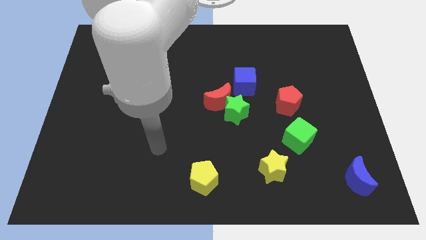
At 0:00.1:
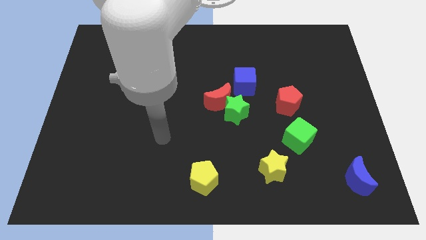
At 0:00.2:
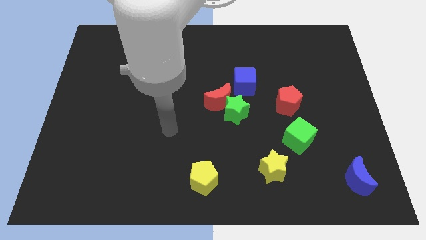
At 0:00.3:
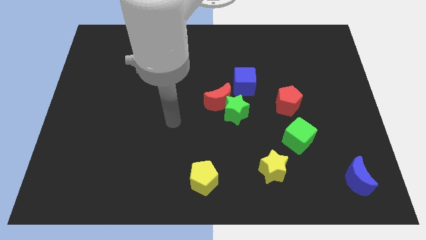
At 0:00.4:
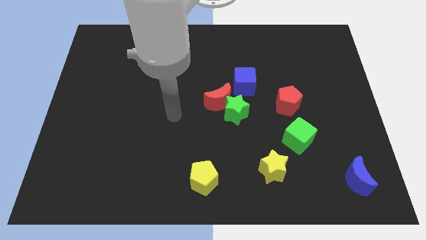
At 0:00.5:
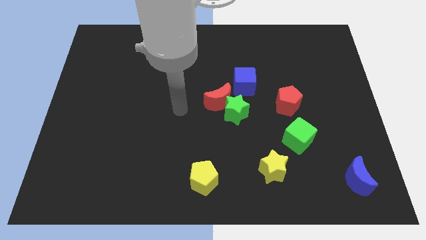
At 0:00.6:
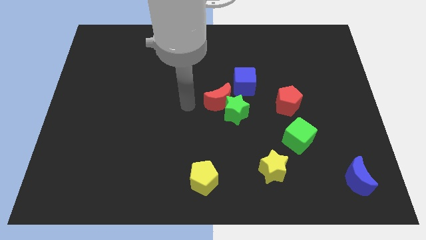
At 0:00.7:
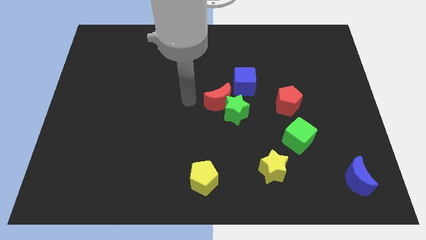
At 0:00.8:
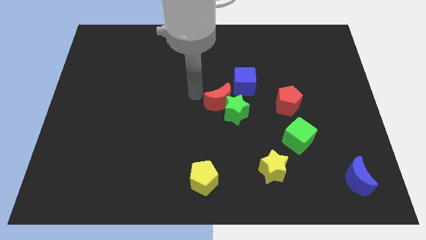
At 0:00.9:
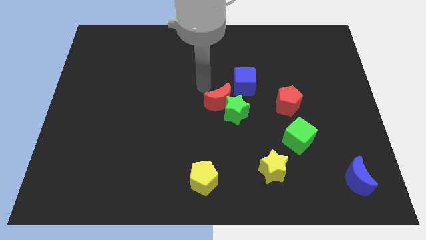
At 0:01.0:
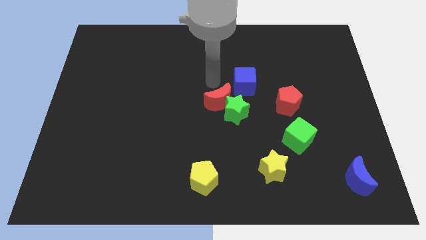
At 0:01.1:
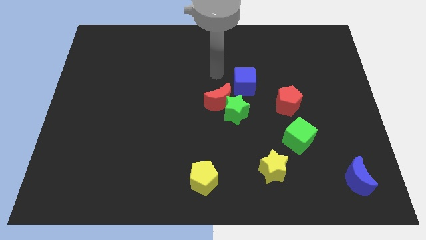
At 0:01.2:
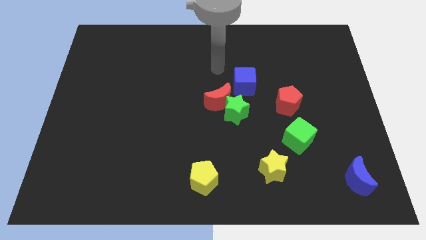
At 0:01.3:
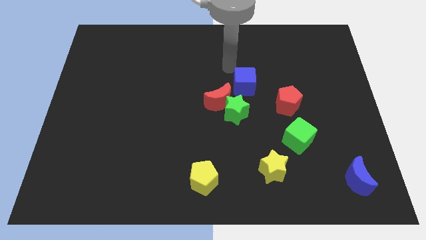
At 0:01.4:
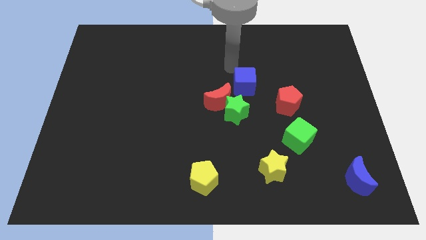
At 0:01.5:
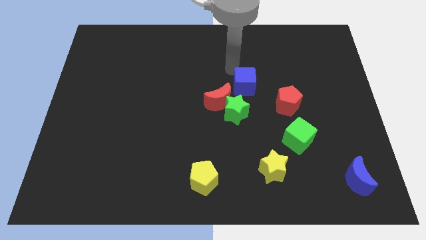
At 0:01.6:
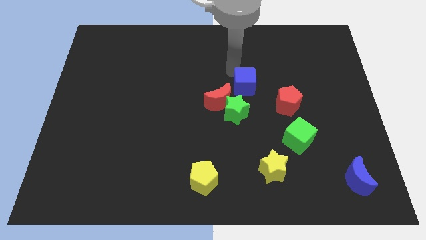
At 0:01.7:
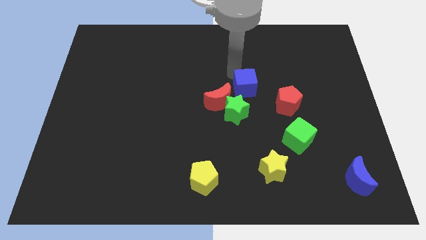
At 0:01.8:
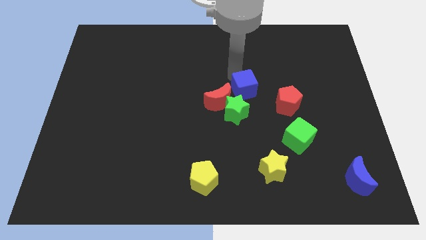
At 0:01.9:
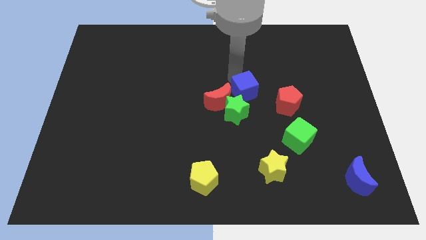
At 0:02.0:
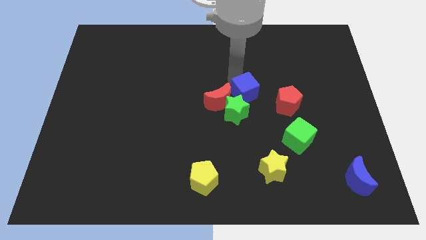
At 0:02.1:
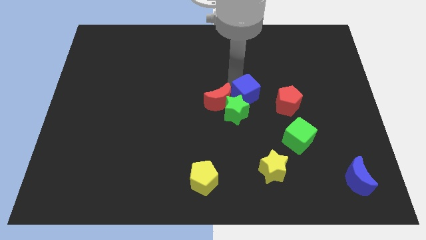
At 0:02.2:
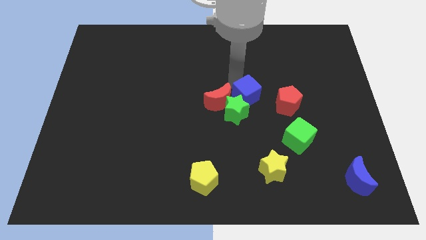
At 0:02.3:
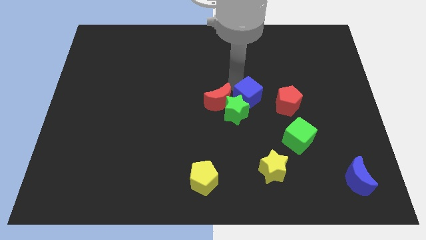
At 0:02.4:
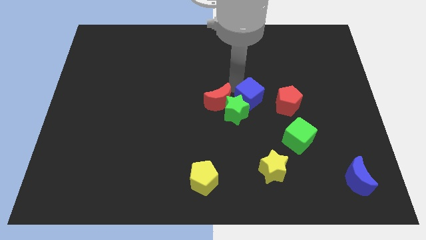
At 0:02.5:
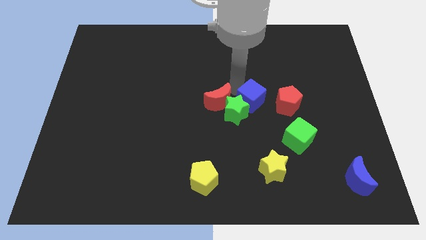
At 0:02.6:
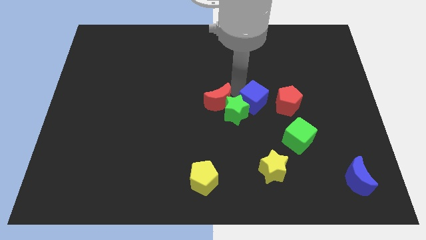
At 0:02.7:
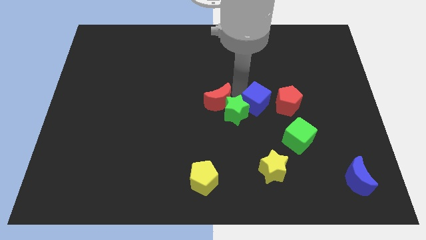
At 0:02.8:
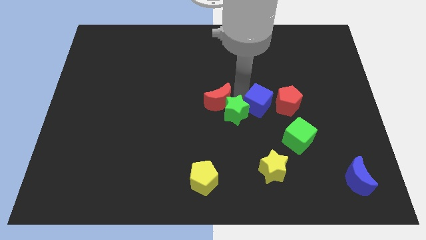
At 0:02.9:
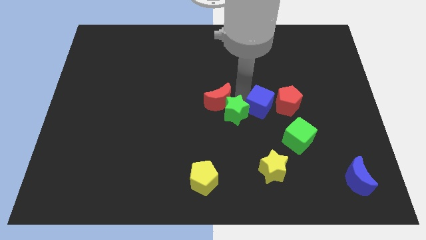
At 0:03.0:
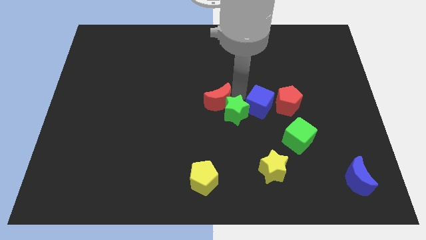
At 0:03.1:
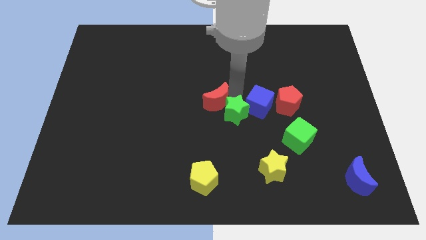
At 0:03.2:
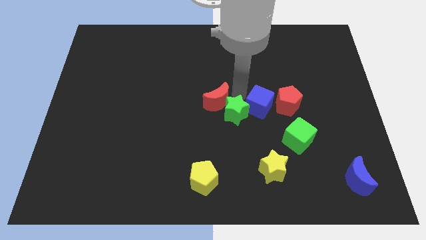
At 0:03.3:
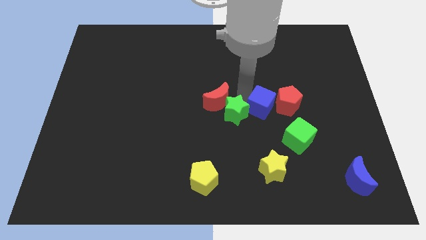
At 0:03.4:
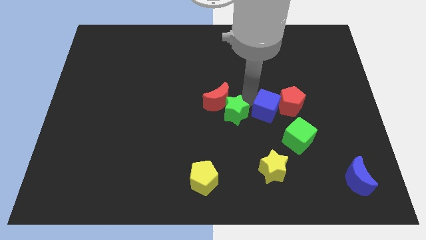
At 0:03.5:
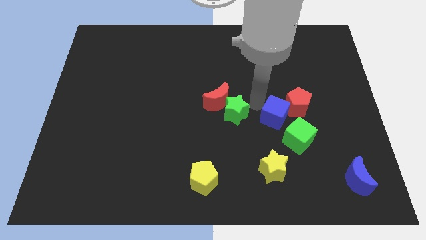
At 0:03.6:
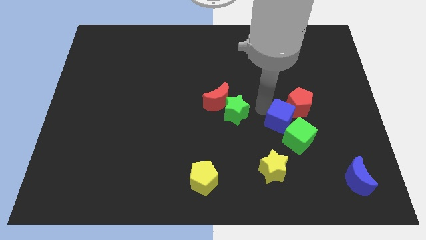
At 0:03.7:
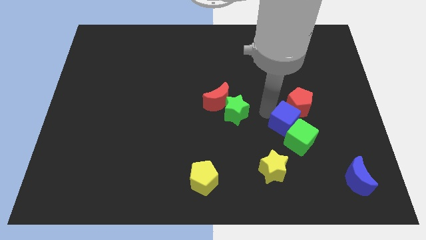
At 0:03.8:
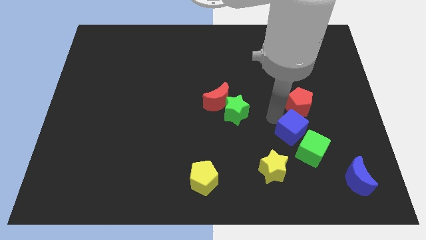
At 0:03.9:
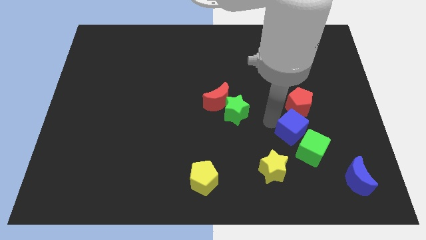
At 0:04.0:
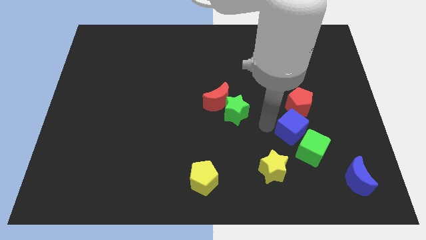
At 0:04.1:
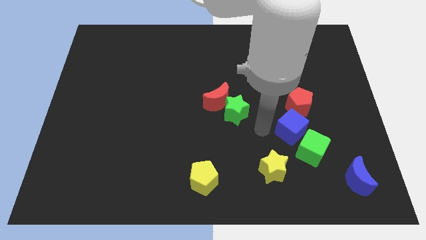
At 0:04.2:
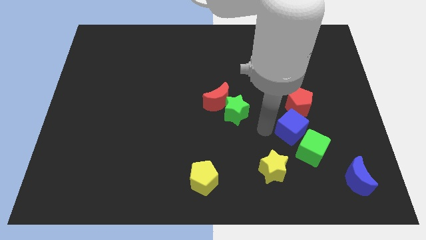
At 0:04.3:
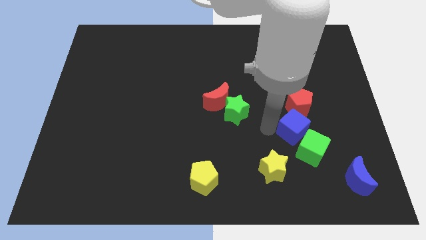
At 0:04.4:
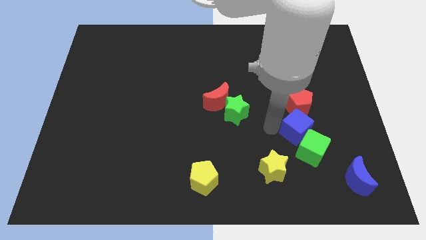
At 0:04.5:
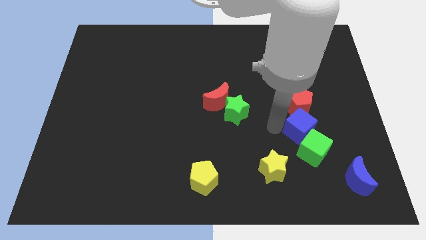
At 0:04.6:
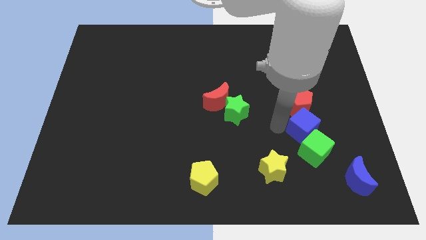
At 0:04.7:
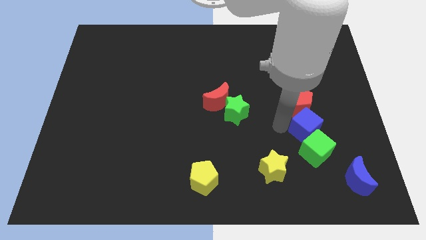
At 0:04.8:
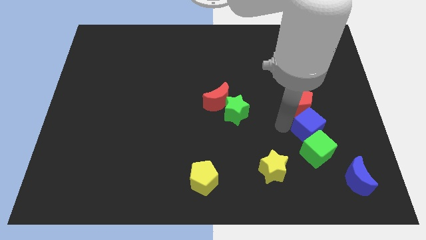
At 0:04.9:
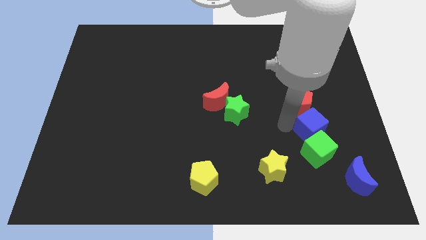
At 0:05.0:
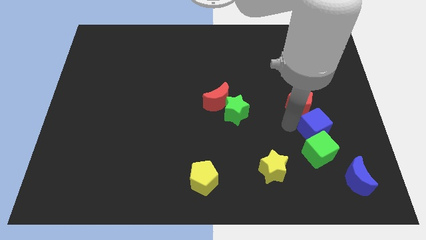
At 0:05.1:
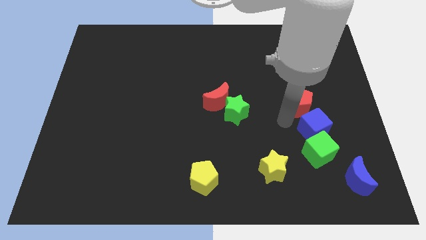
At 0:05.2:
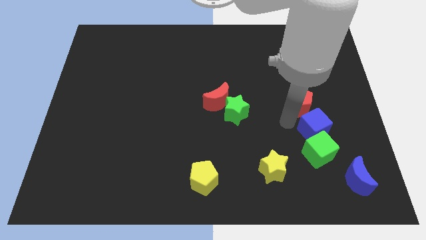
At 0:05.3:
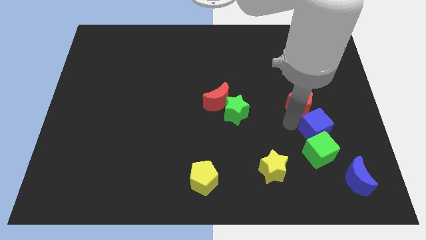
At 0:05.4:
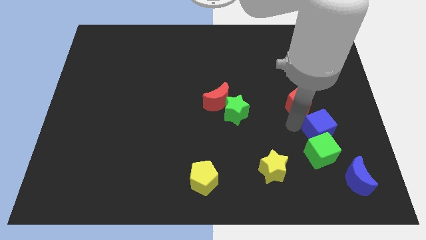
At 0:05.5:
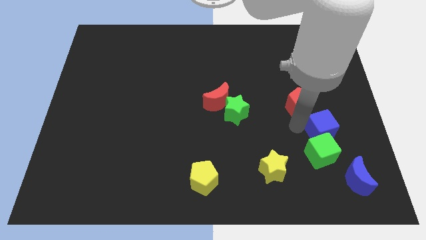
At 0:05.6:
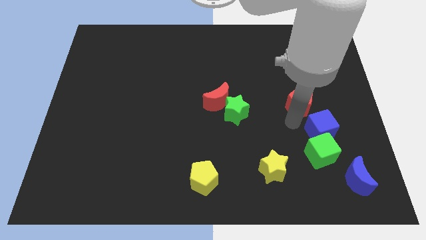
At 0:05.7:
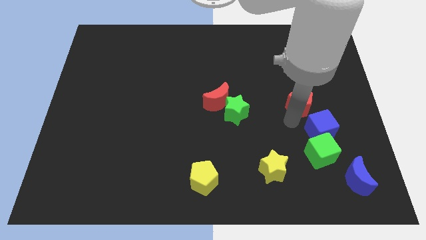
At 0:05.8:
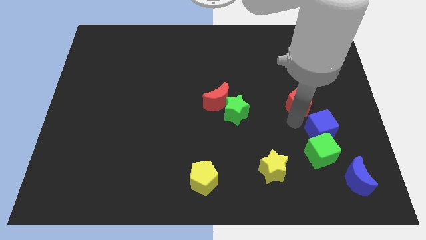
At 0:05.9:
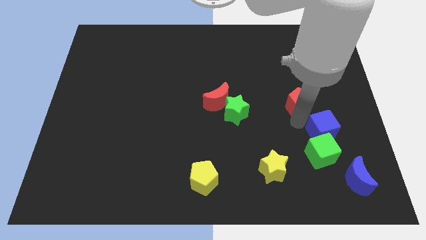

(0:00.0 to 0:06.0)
put the blue cube to the top of the blue moon

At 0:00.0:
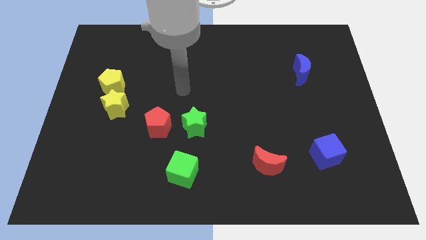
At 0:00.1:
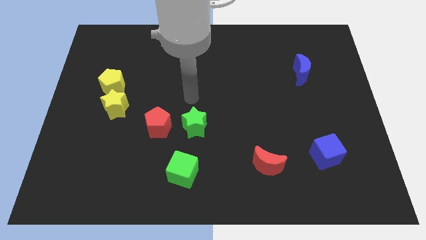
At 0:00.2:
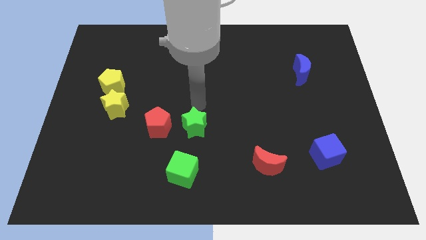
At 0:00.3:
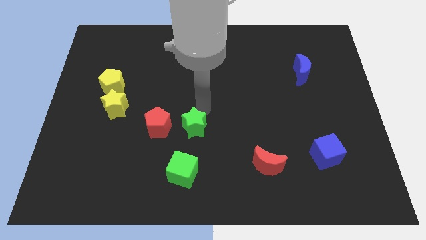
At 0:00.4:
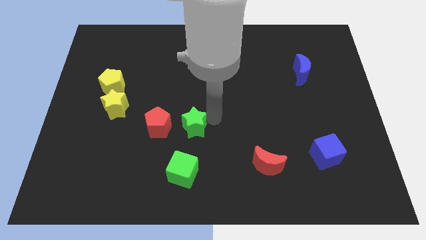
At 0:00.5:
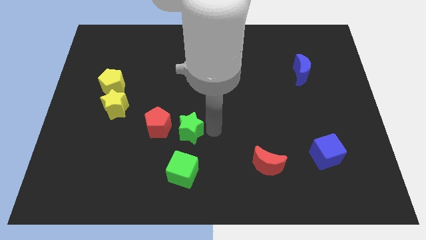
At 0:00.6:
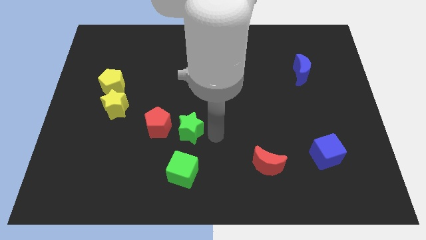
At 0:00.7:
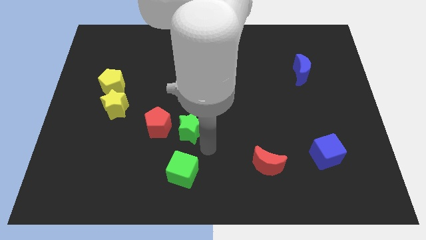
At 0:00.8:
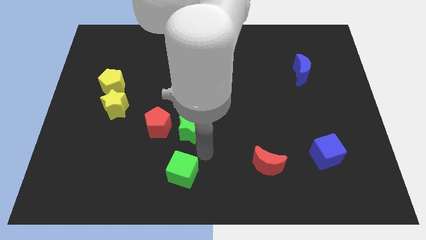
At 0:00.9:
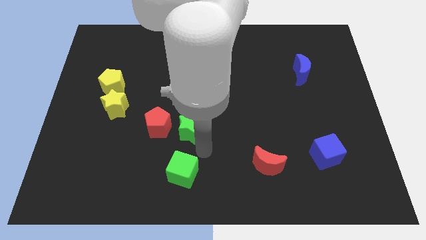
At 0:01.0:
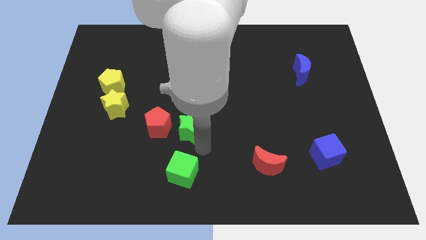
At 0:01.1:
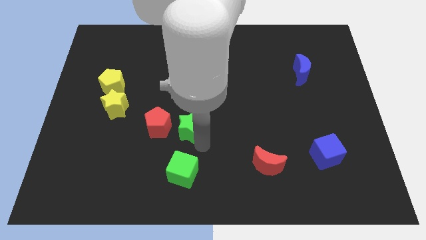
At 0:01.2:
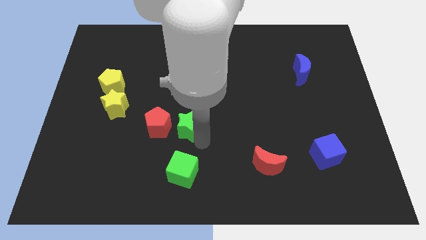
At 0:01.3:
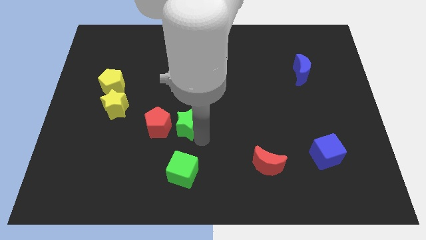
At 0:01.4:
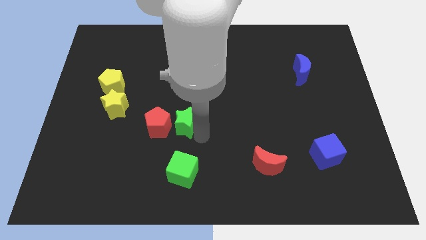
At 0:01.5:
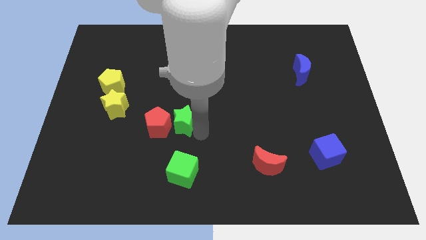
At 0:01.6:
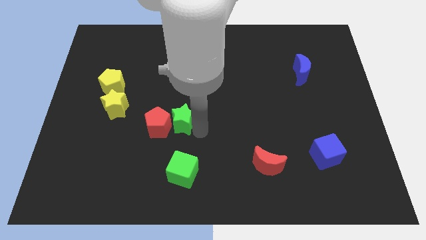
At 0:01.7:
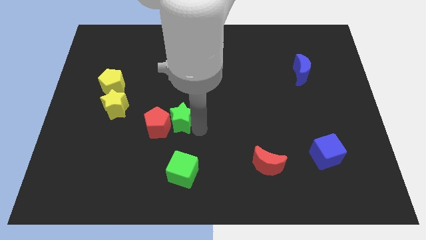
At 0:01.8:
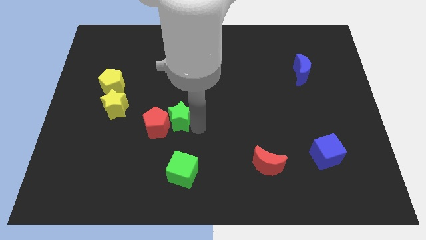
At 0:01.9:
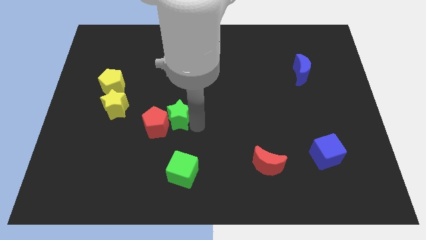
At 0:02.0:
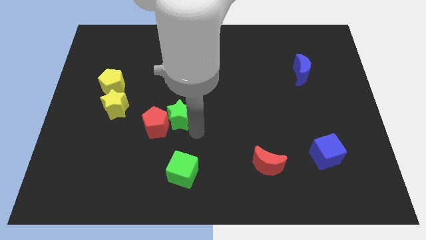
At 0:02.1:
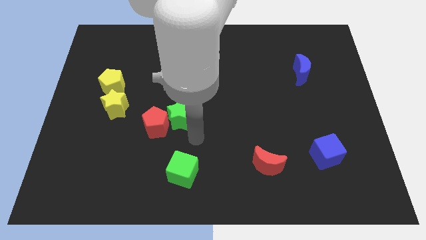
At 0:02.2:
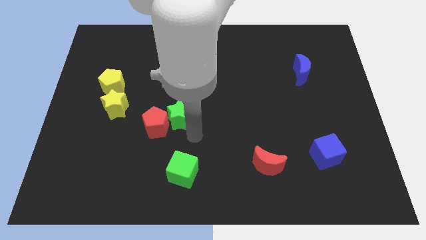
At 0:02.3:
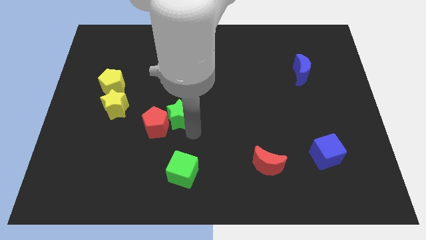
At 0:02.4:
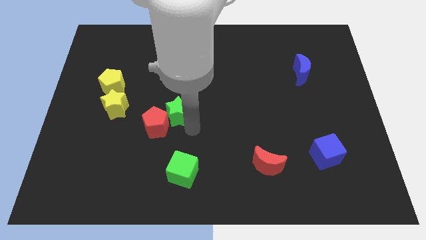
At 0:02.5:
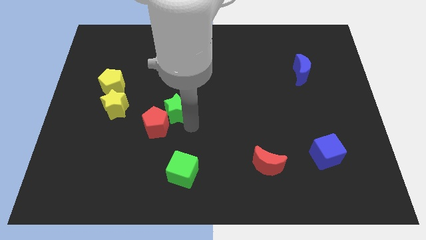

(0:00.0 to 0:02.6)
push the green star to the top side of the red pentagon
